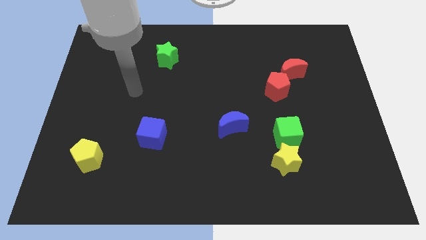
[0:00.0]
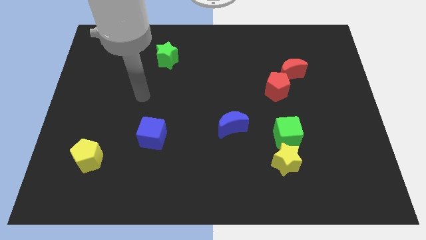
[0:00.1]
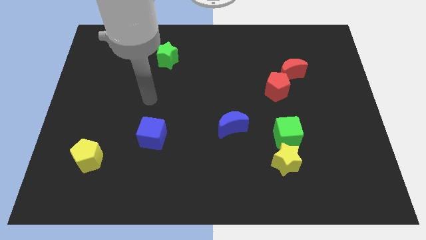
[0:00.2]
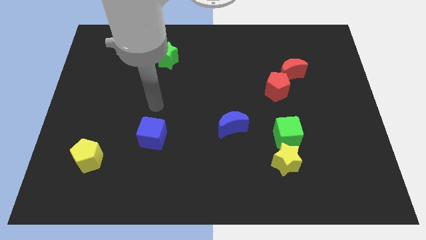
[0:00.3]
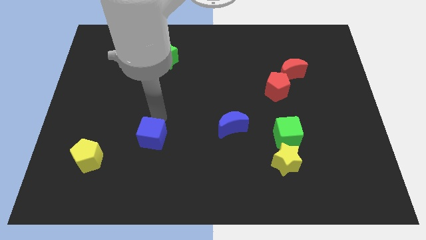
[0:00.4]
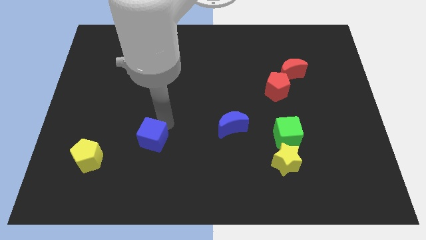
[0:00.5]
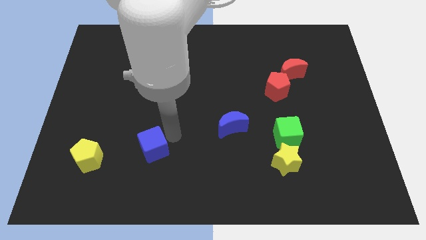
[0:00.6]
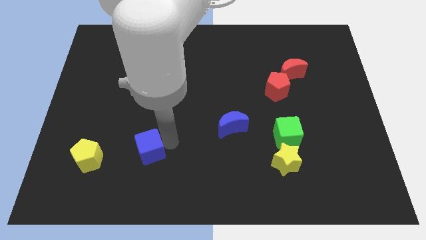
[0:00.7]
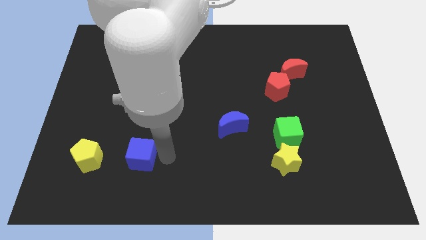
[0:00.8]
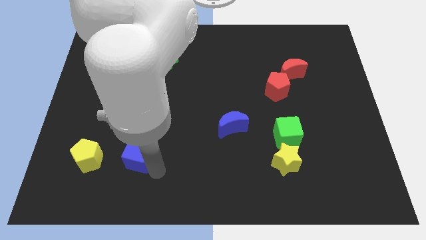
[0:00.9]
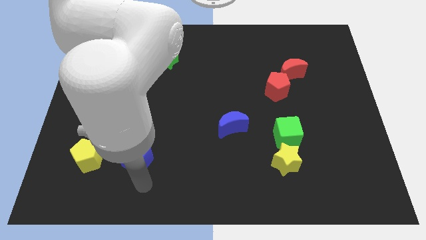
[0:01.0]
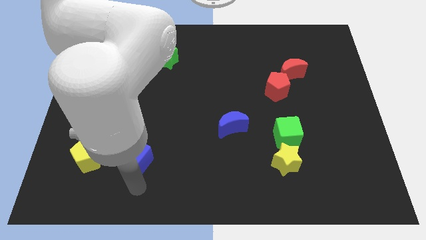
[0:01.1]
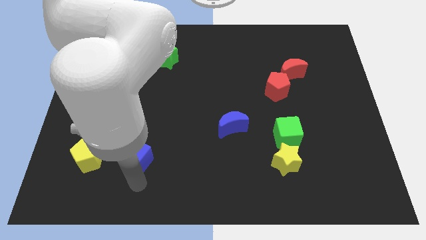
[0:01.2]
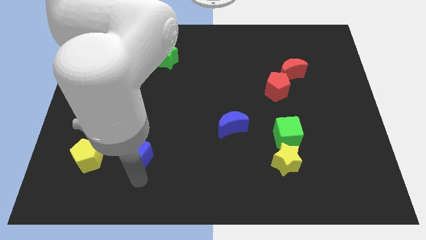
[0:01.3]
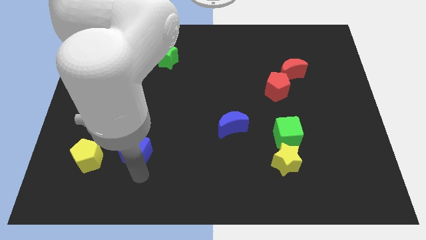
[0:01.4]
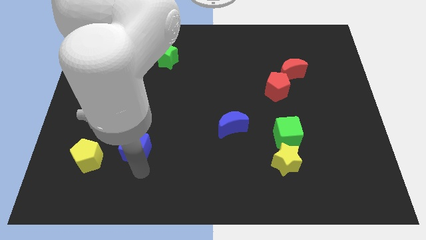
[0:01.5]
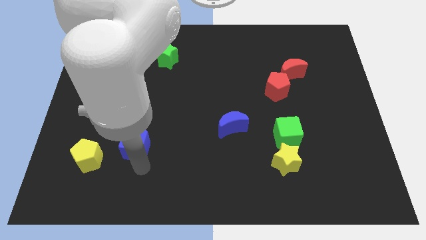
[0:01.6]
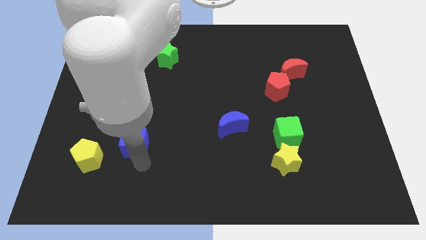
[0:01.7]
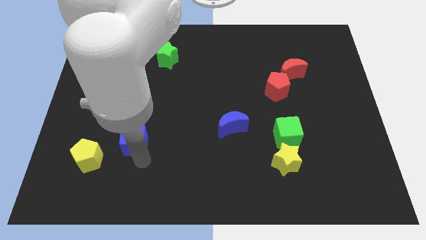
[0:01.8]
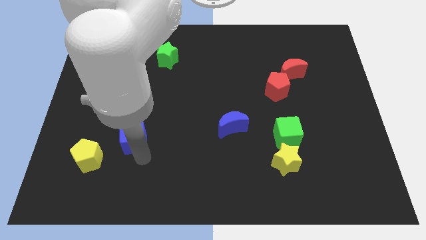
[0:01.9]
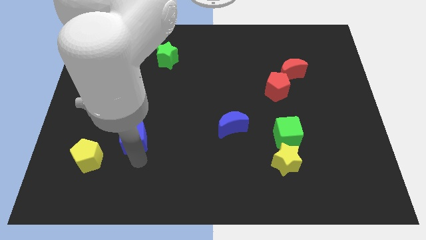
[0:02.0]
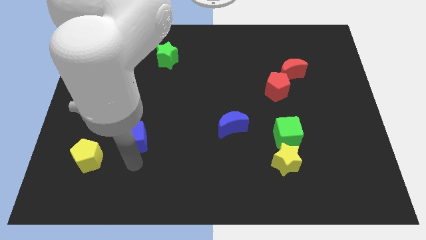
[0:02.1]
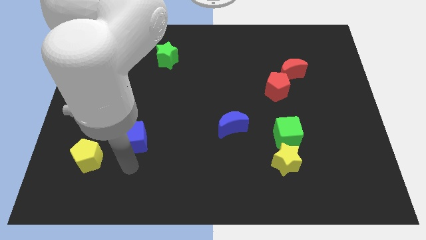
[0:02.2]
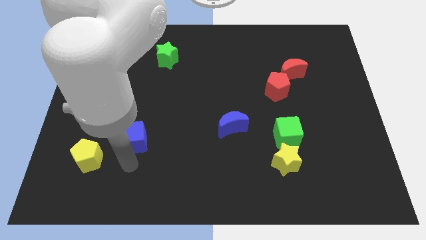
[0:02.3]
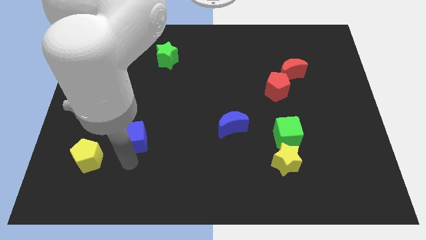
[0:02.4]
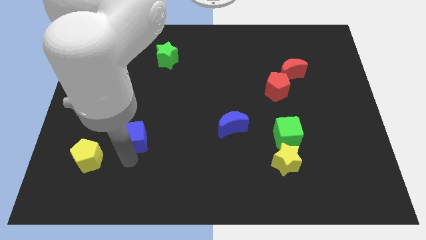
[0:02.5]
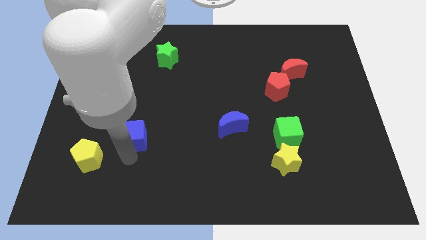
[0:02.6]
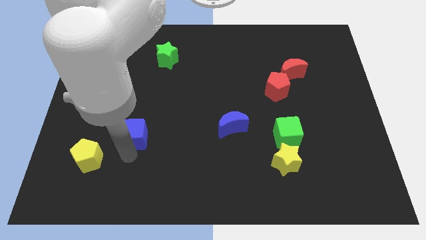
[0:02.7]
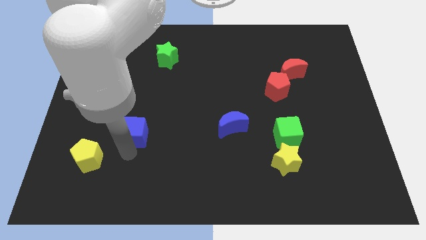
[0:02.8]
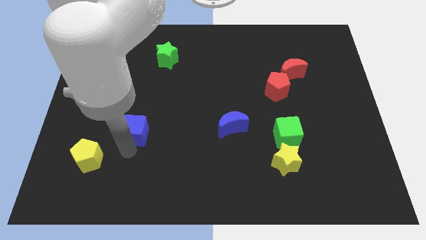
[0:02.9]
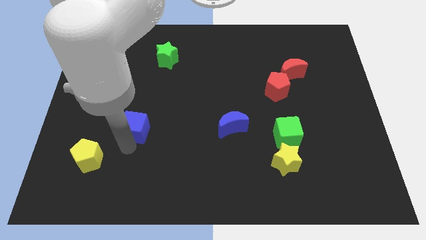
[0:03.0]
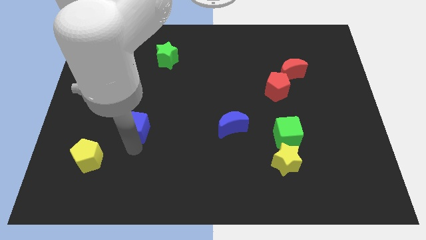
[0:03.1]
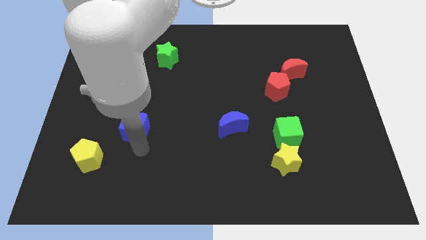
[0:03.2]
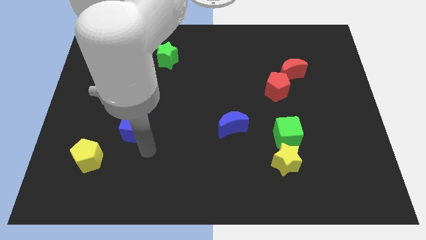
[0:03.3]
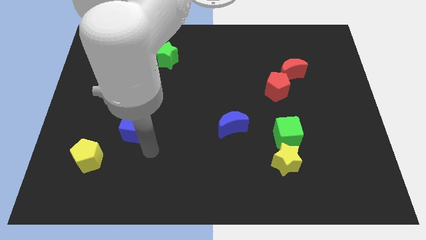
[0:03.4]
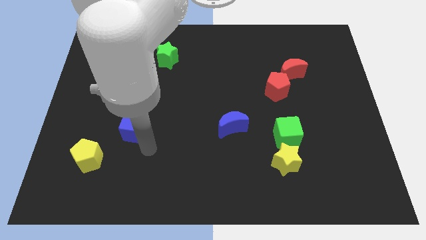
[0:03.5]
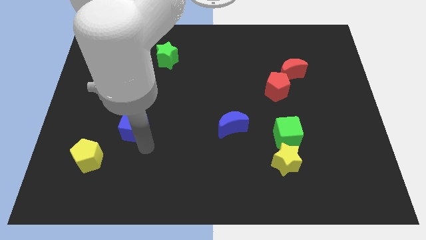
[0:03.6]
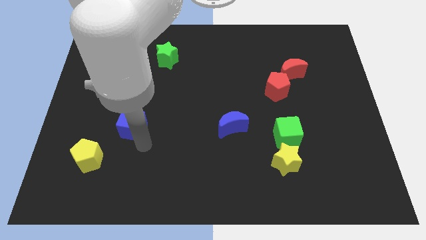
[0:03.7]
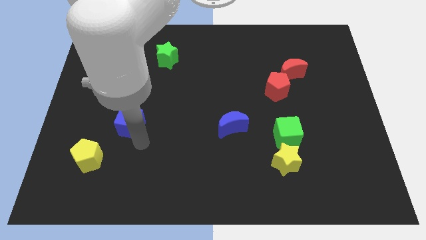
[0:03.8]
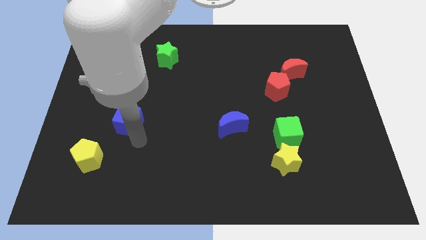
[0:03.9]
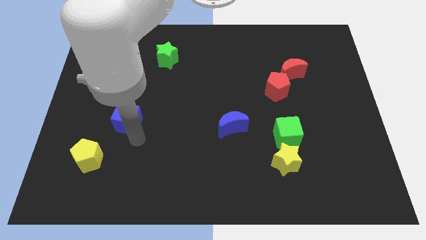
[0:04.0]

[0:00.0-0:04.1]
move the blue cube diagonally up and to the left a little

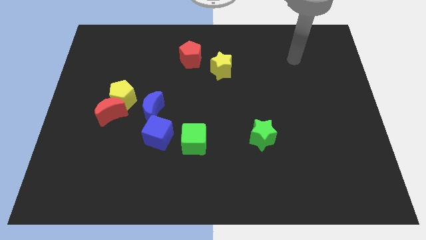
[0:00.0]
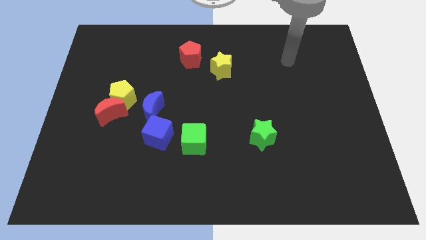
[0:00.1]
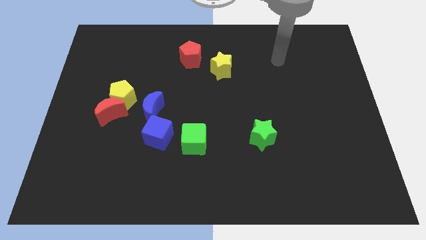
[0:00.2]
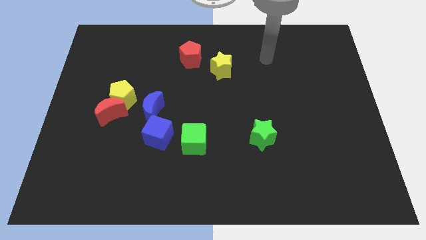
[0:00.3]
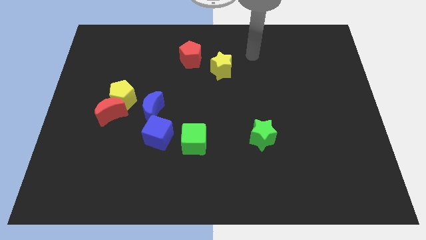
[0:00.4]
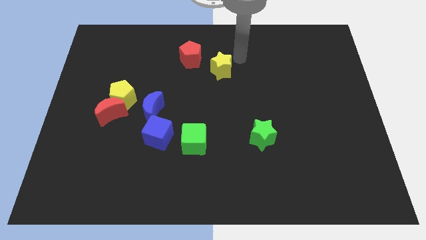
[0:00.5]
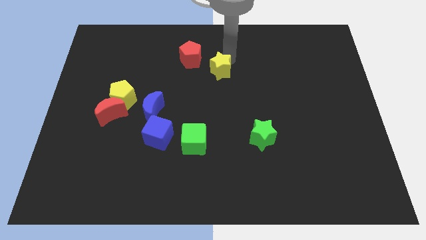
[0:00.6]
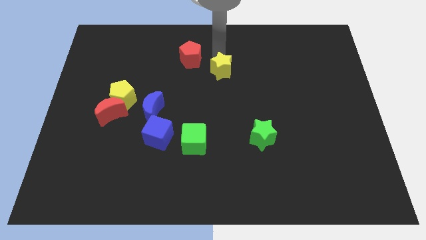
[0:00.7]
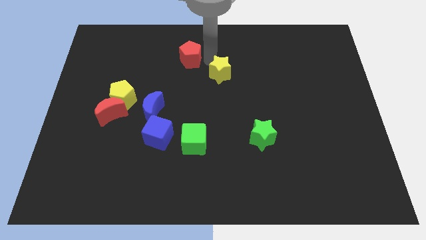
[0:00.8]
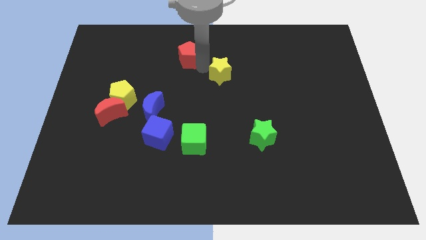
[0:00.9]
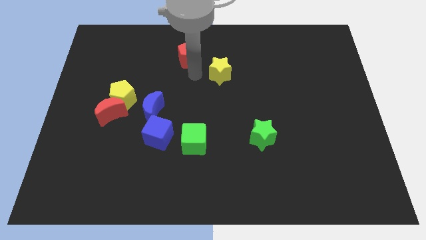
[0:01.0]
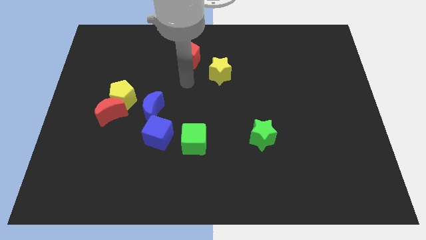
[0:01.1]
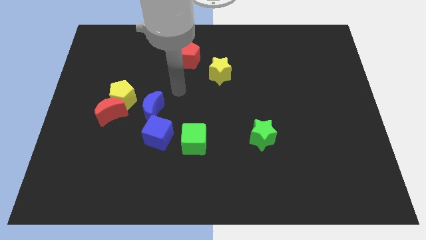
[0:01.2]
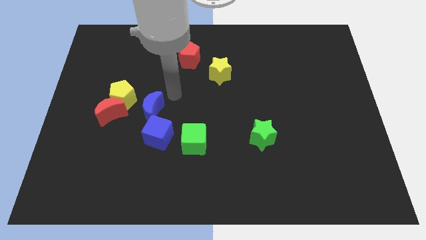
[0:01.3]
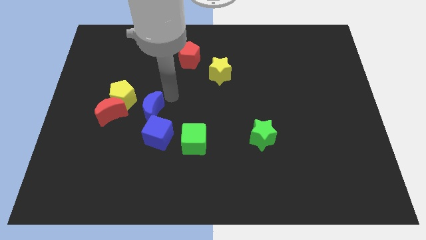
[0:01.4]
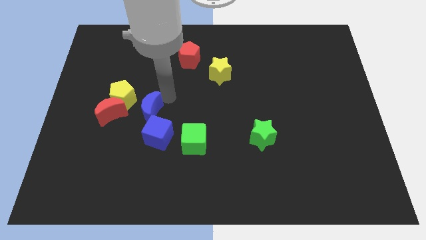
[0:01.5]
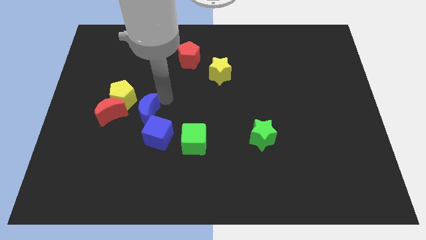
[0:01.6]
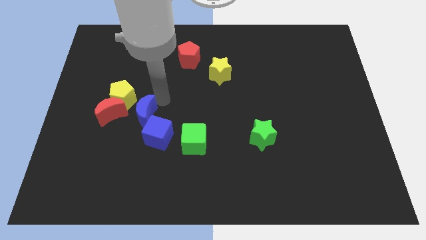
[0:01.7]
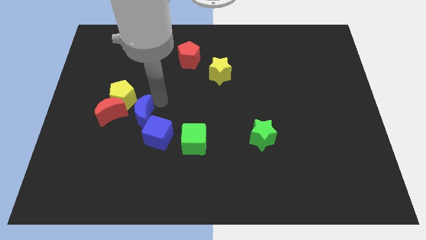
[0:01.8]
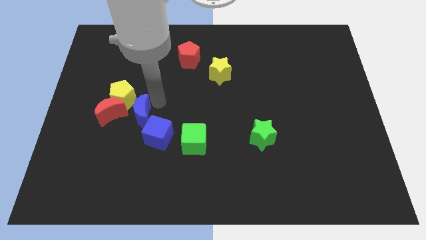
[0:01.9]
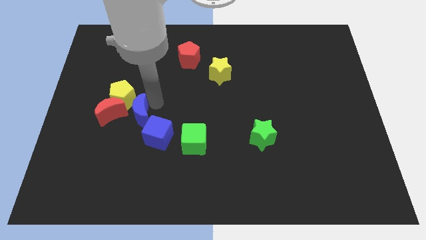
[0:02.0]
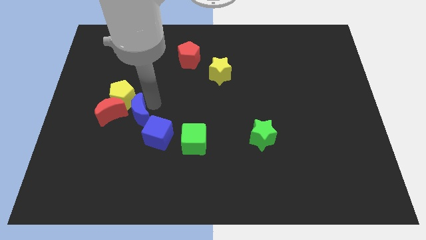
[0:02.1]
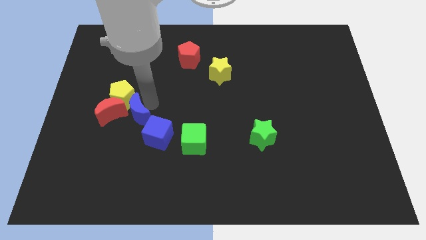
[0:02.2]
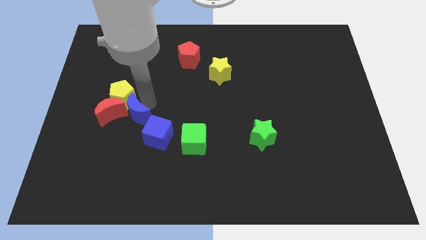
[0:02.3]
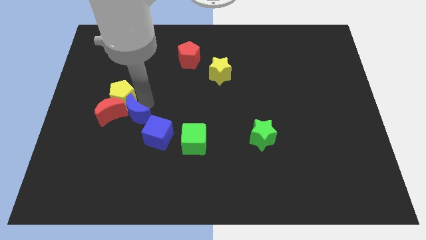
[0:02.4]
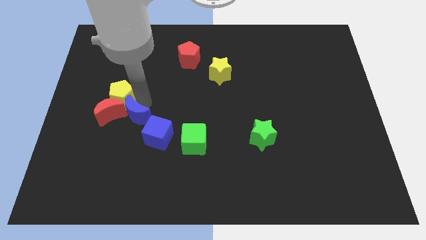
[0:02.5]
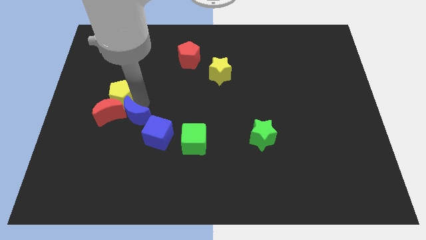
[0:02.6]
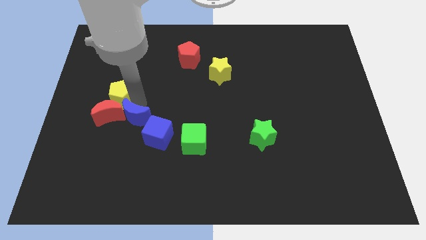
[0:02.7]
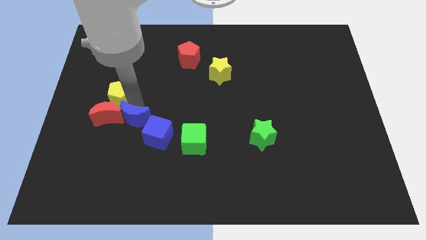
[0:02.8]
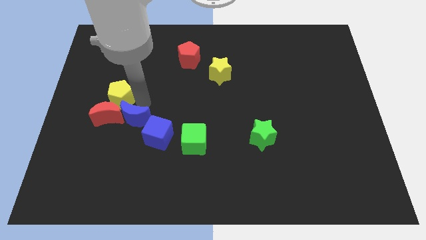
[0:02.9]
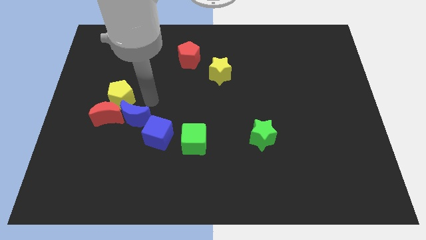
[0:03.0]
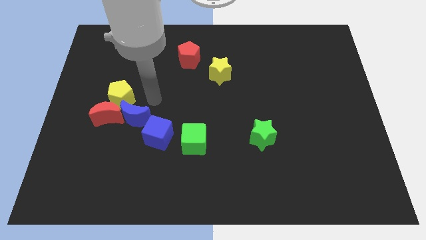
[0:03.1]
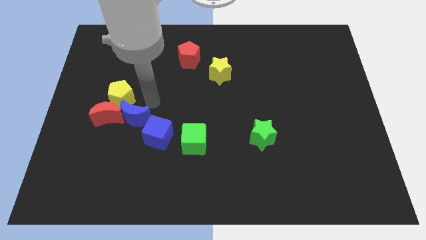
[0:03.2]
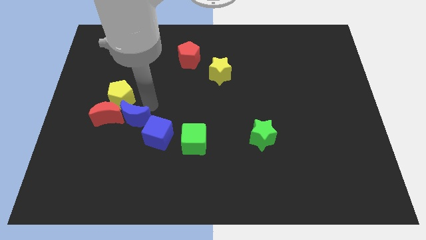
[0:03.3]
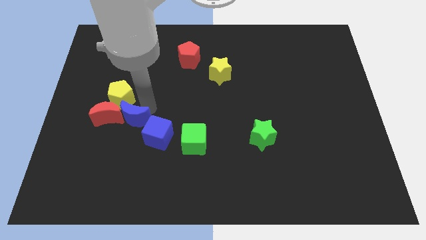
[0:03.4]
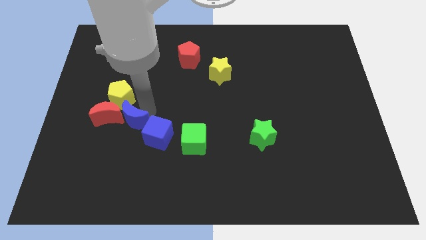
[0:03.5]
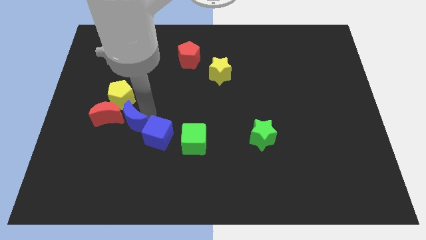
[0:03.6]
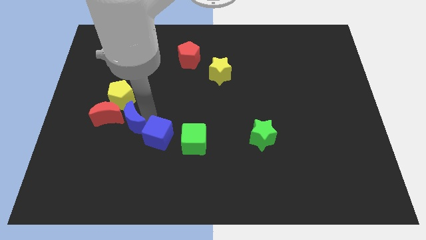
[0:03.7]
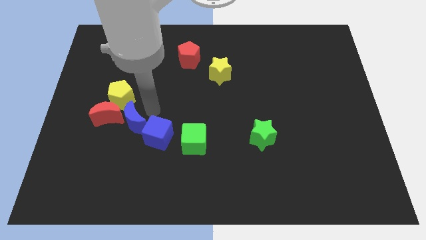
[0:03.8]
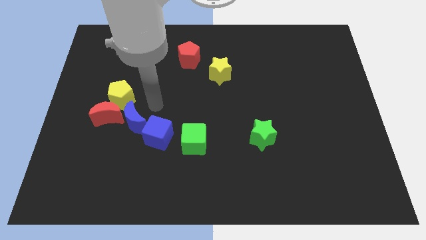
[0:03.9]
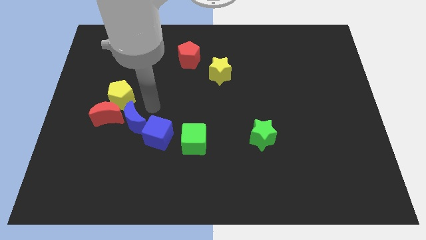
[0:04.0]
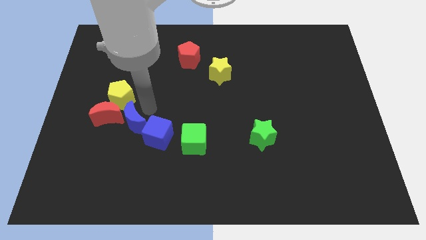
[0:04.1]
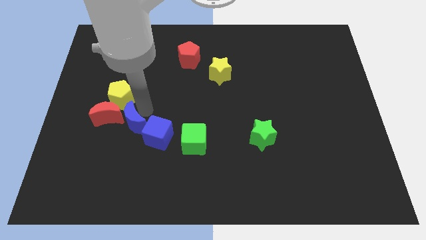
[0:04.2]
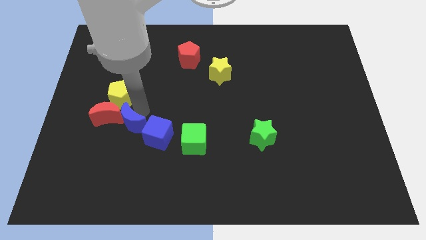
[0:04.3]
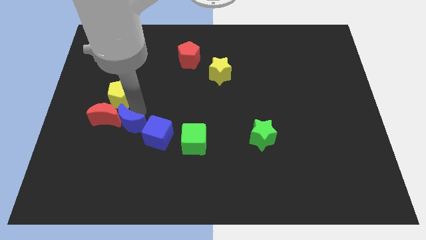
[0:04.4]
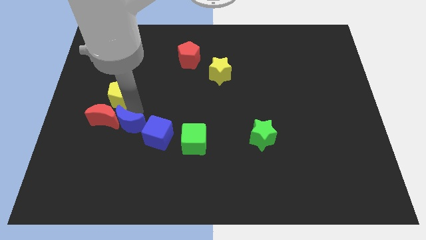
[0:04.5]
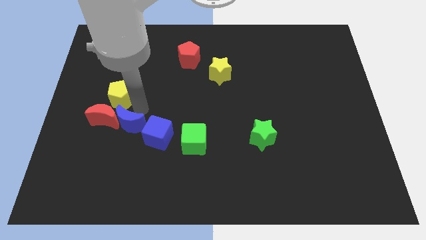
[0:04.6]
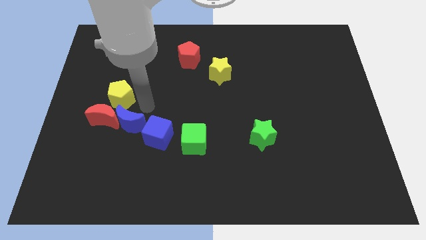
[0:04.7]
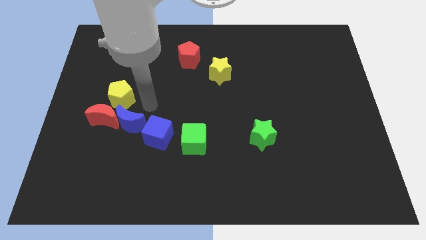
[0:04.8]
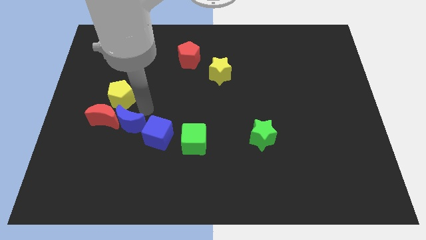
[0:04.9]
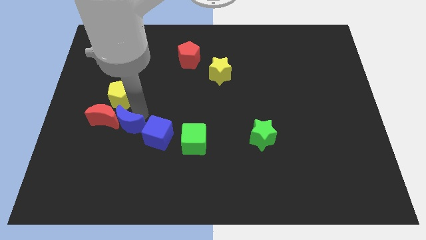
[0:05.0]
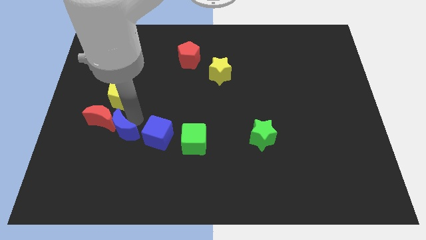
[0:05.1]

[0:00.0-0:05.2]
slide the blue moon somewhat down and to the left
